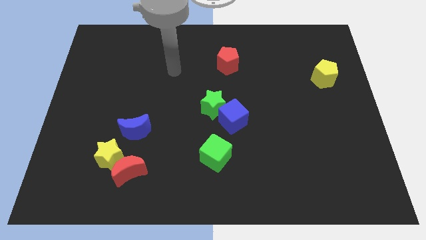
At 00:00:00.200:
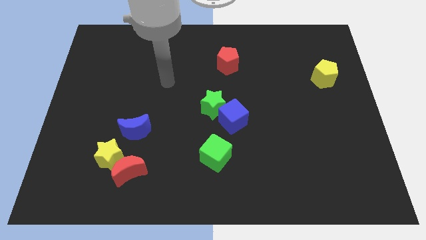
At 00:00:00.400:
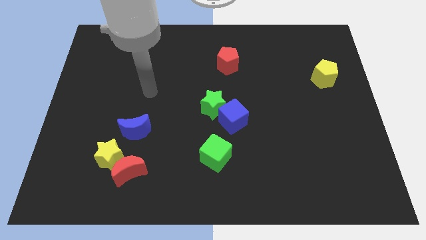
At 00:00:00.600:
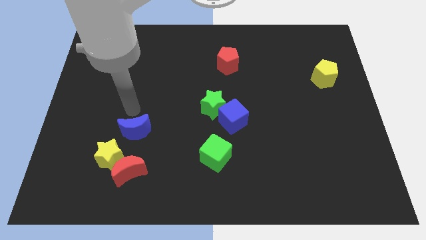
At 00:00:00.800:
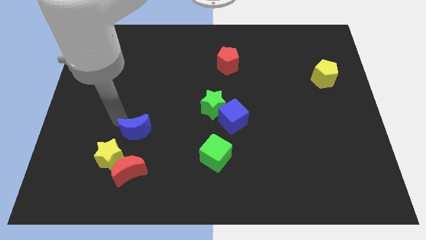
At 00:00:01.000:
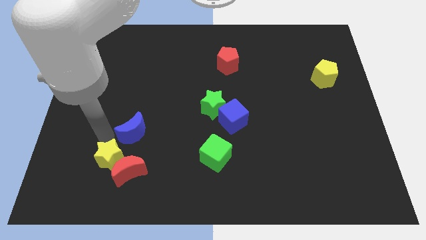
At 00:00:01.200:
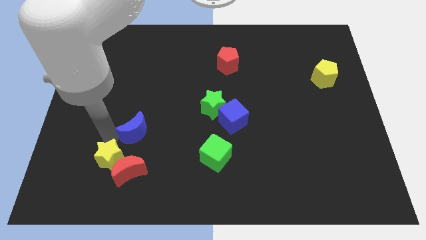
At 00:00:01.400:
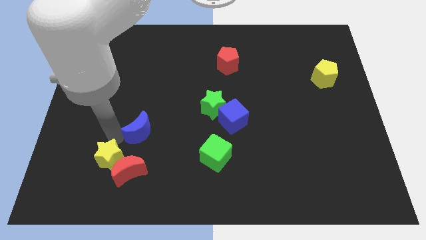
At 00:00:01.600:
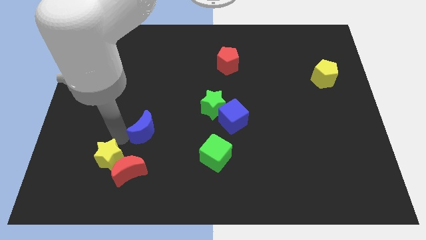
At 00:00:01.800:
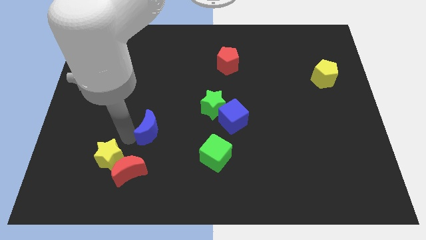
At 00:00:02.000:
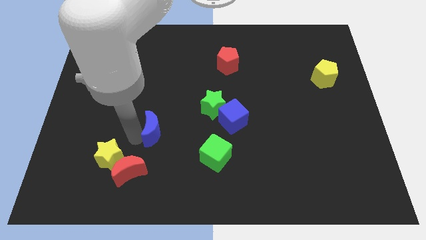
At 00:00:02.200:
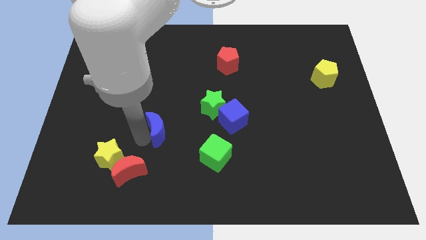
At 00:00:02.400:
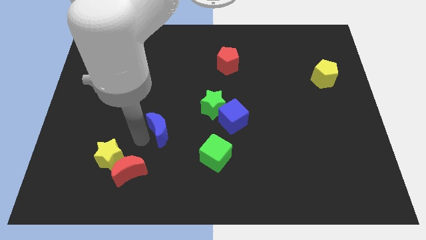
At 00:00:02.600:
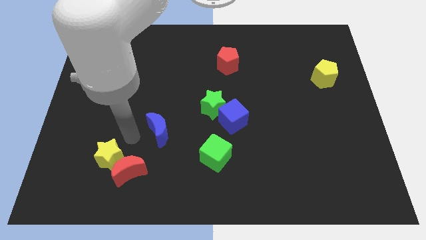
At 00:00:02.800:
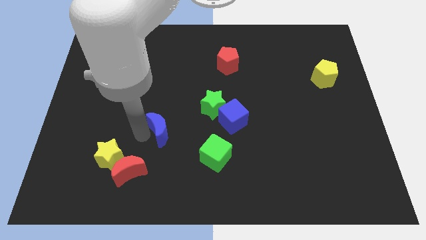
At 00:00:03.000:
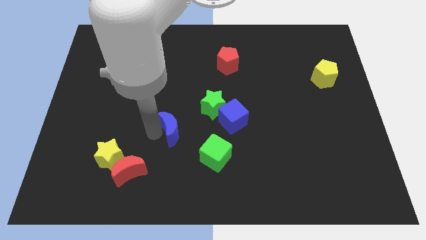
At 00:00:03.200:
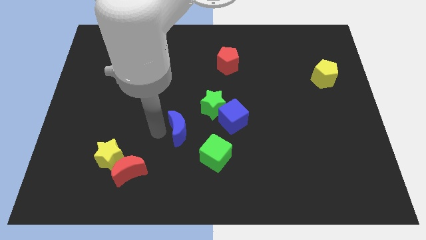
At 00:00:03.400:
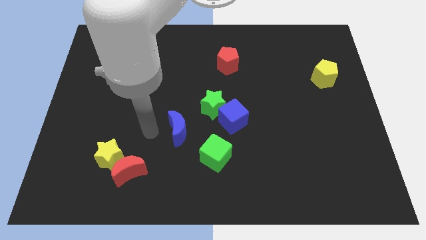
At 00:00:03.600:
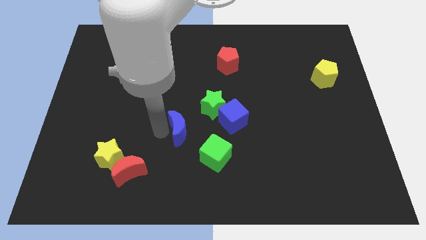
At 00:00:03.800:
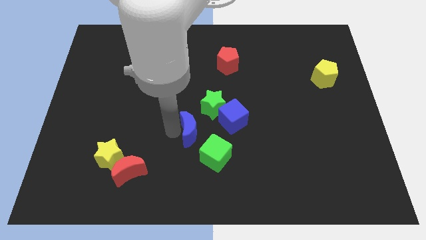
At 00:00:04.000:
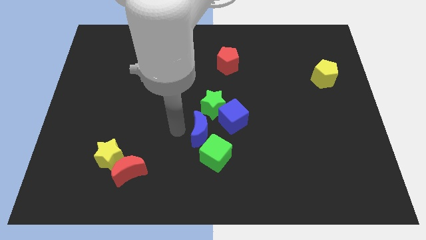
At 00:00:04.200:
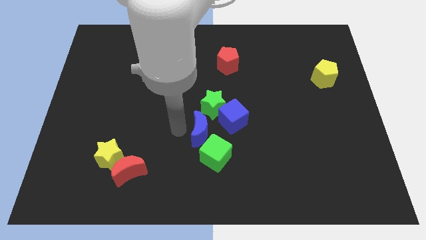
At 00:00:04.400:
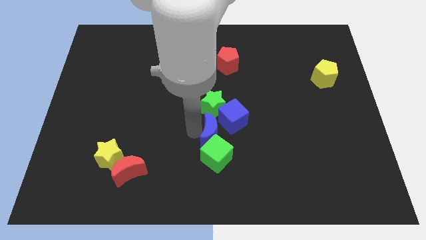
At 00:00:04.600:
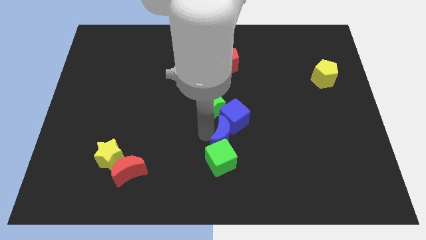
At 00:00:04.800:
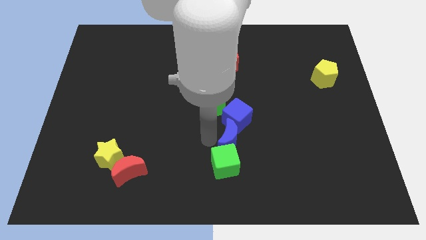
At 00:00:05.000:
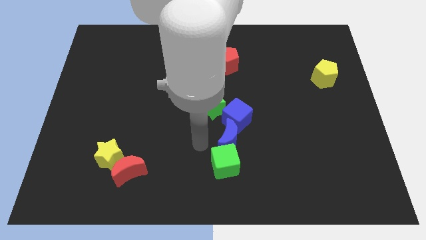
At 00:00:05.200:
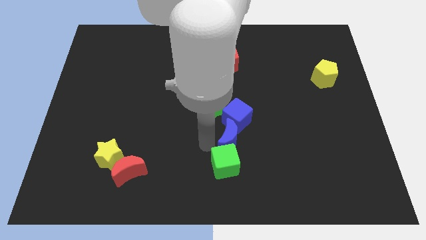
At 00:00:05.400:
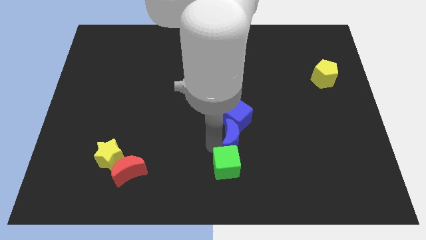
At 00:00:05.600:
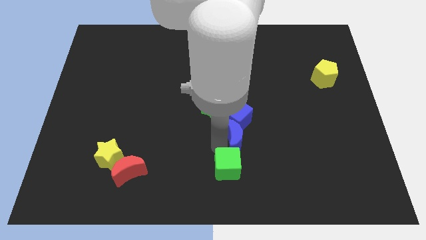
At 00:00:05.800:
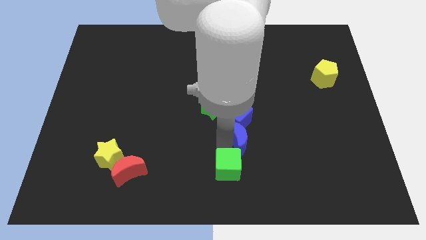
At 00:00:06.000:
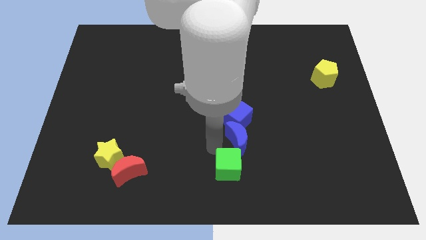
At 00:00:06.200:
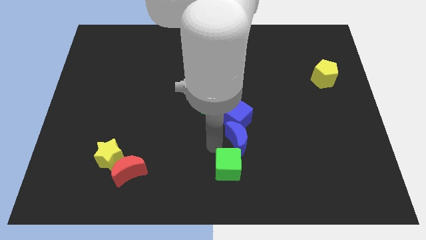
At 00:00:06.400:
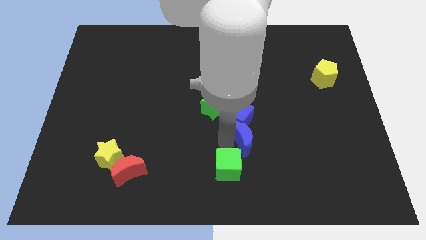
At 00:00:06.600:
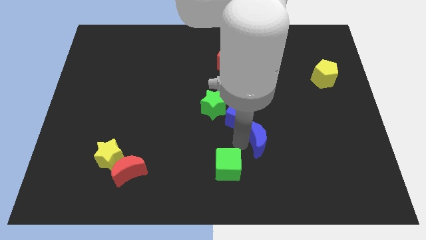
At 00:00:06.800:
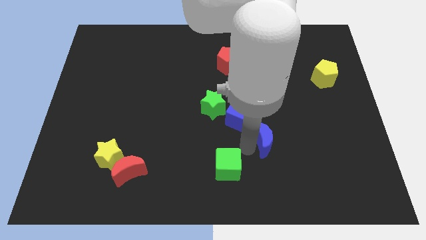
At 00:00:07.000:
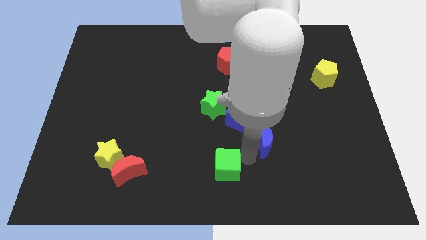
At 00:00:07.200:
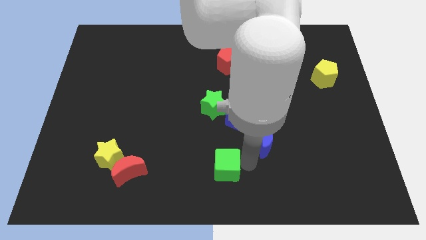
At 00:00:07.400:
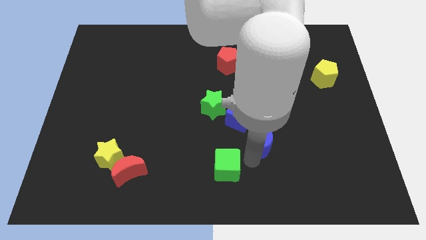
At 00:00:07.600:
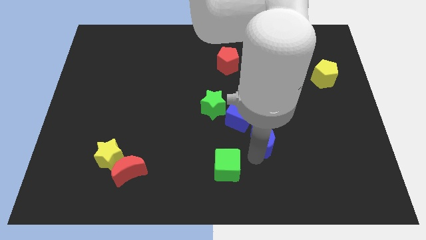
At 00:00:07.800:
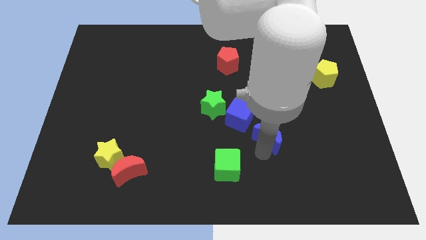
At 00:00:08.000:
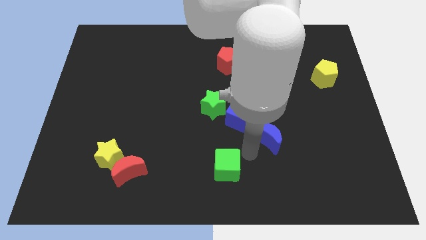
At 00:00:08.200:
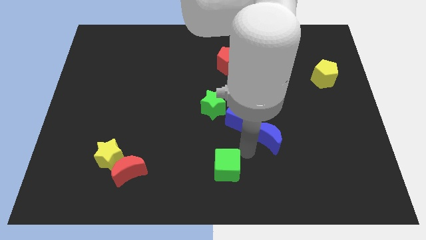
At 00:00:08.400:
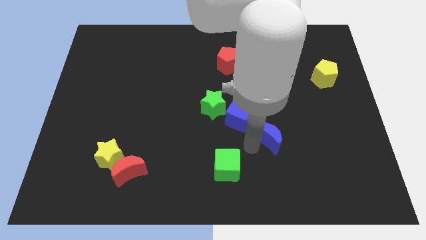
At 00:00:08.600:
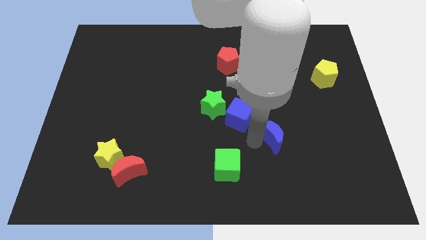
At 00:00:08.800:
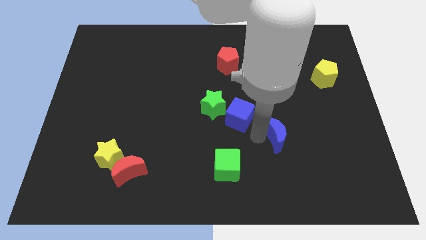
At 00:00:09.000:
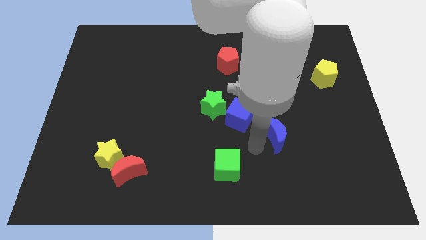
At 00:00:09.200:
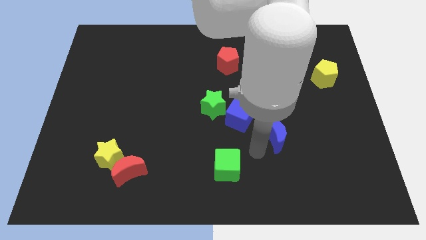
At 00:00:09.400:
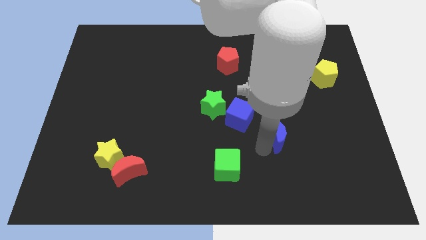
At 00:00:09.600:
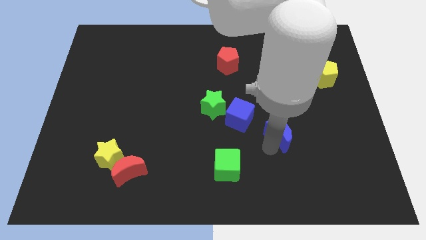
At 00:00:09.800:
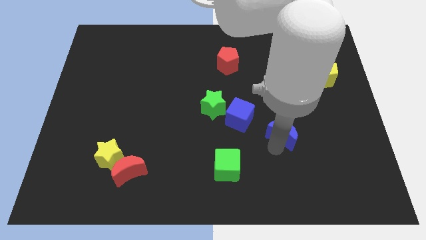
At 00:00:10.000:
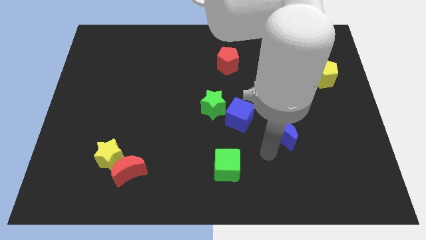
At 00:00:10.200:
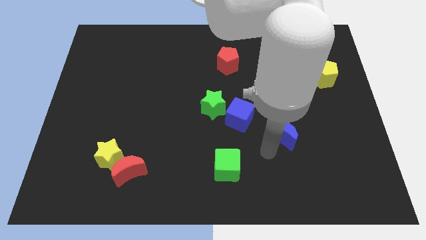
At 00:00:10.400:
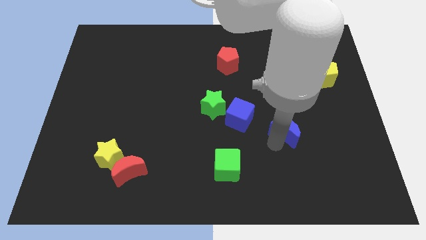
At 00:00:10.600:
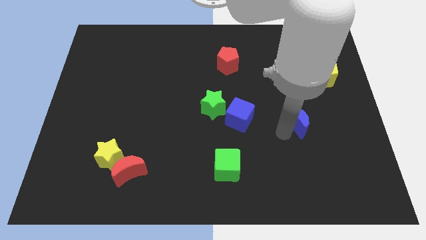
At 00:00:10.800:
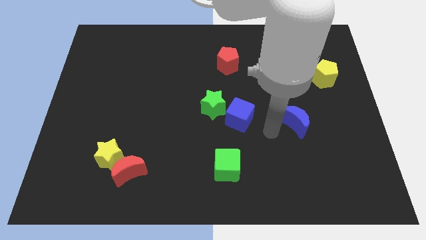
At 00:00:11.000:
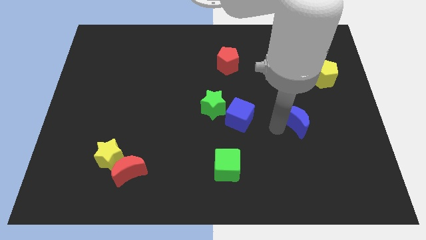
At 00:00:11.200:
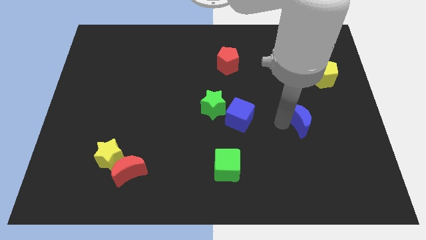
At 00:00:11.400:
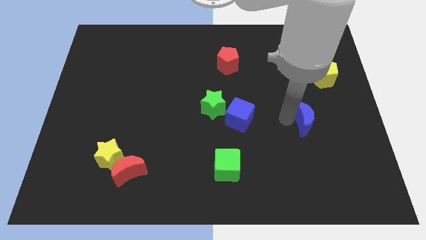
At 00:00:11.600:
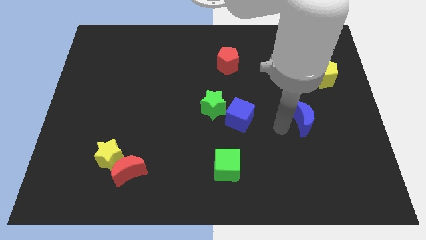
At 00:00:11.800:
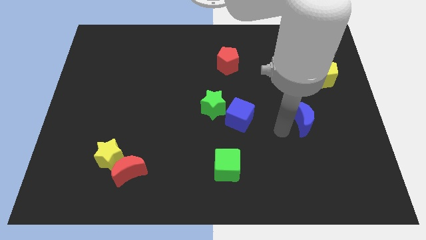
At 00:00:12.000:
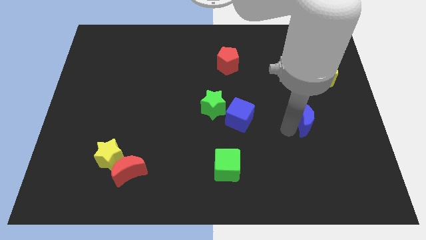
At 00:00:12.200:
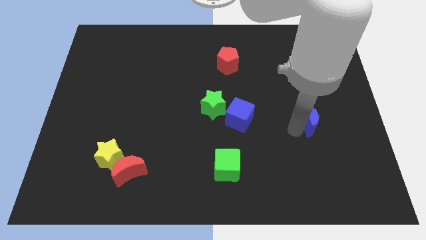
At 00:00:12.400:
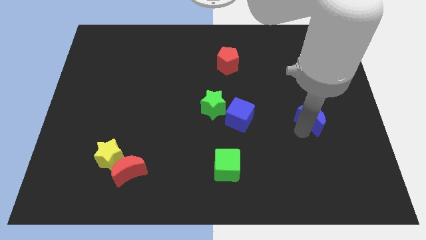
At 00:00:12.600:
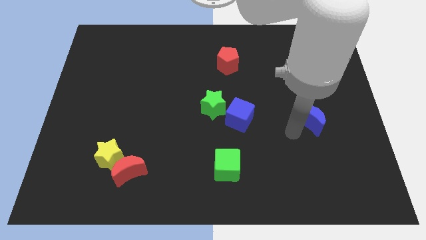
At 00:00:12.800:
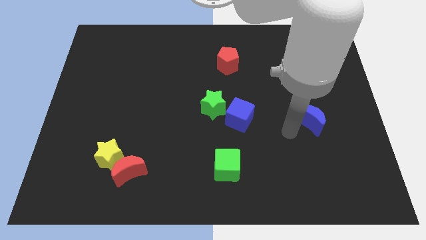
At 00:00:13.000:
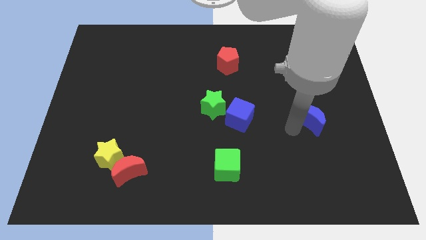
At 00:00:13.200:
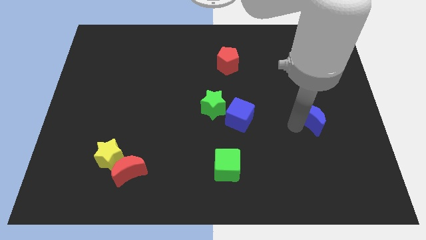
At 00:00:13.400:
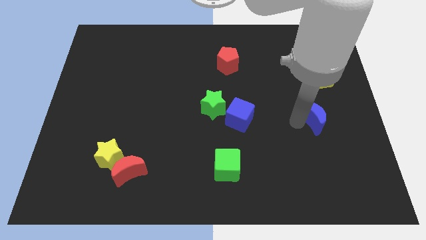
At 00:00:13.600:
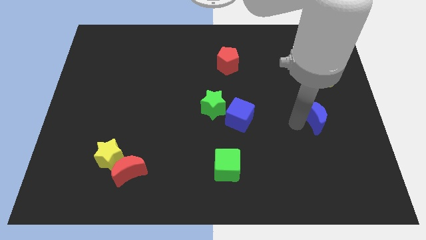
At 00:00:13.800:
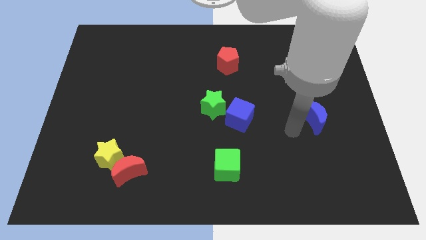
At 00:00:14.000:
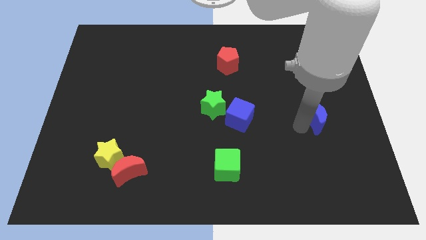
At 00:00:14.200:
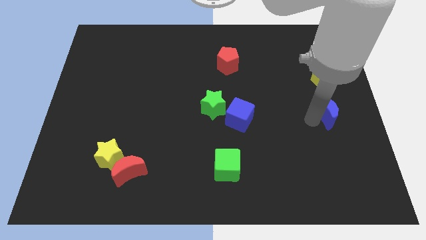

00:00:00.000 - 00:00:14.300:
put the blue moon to the right side
